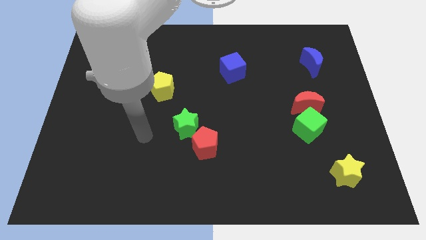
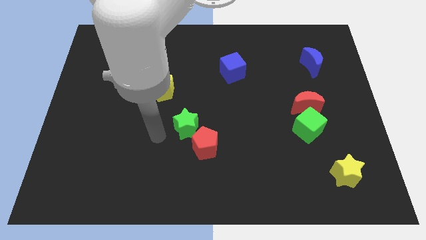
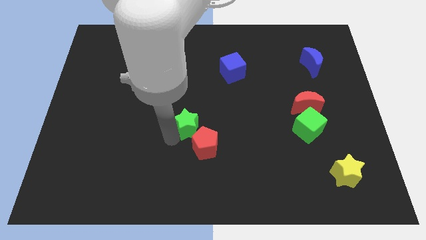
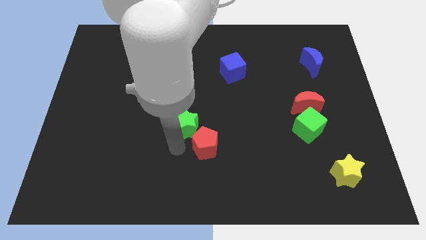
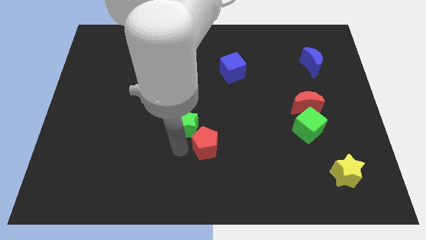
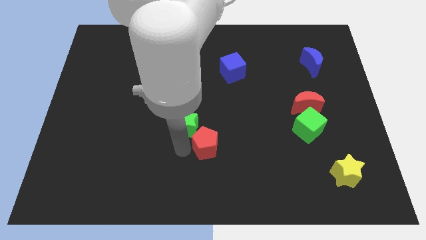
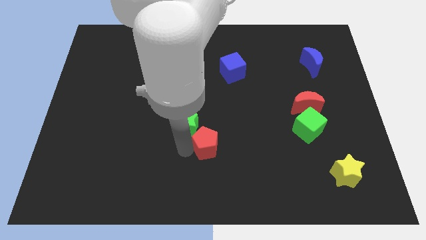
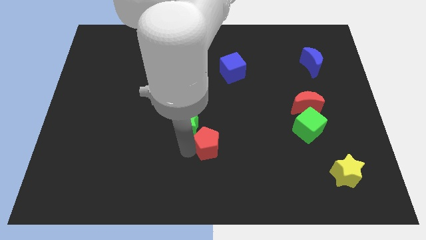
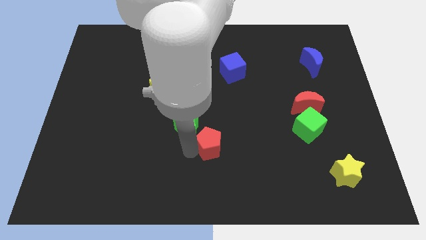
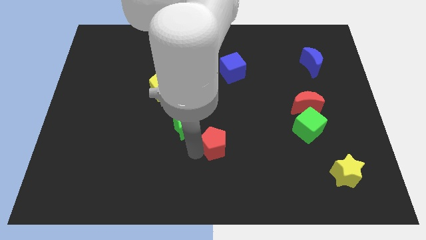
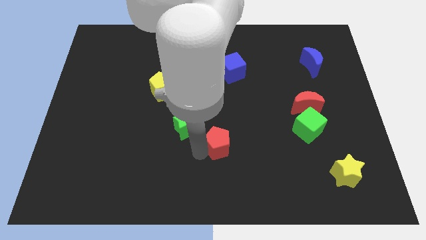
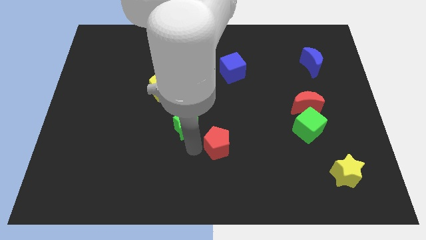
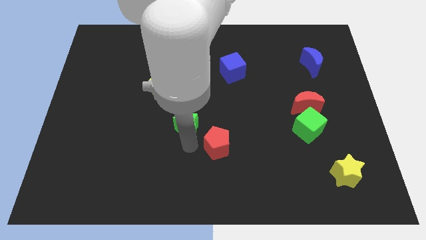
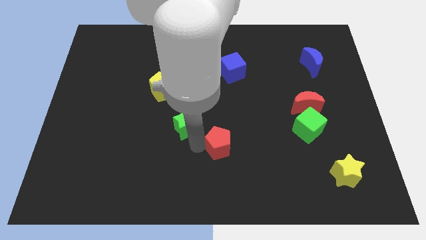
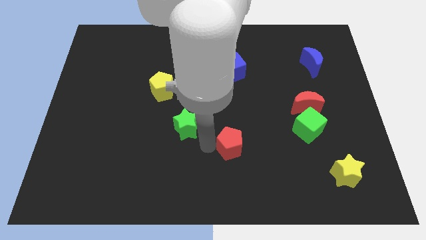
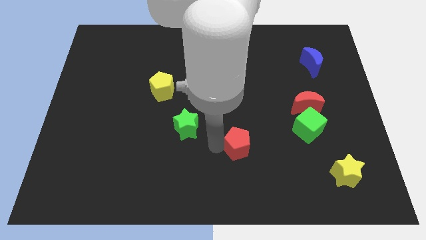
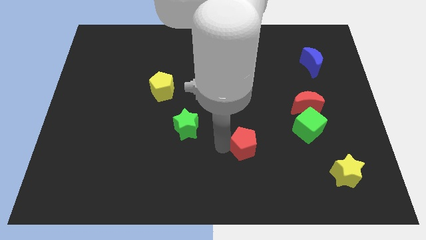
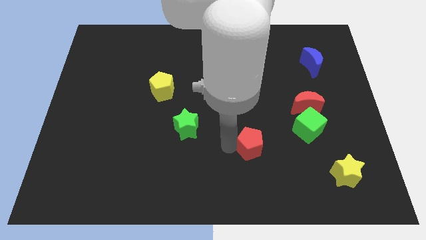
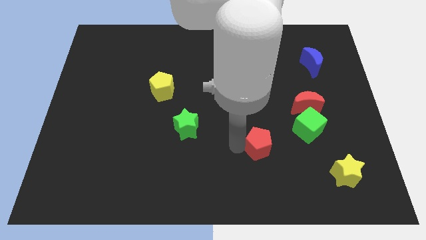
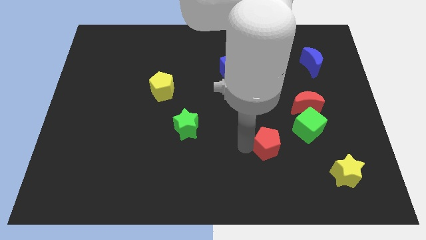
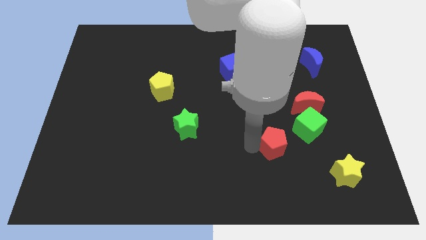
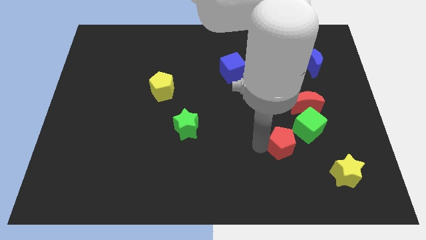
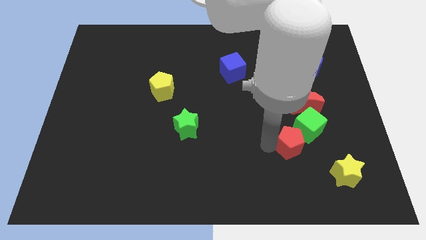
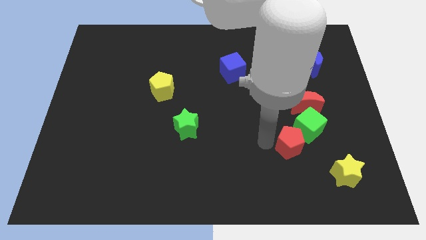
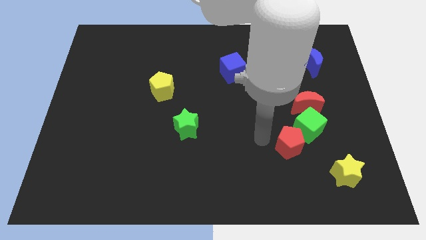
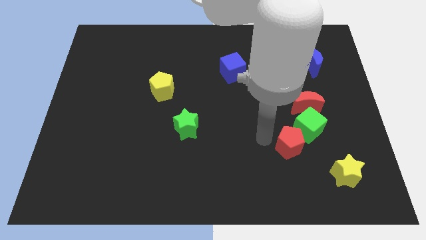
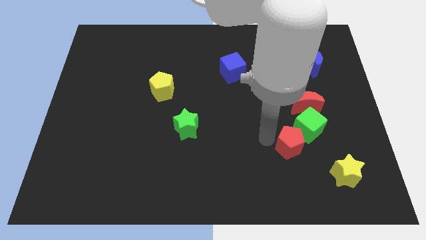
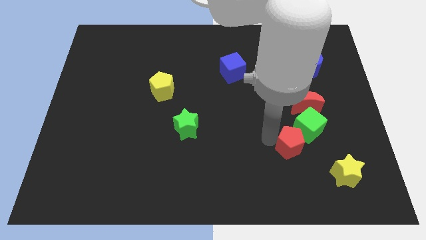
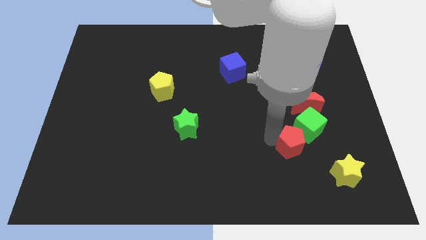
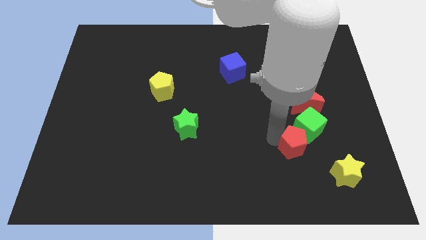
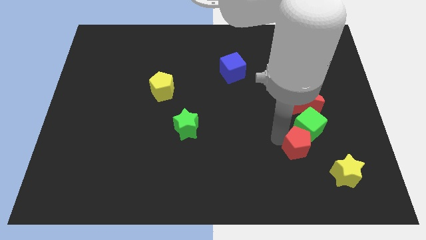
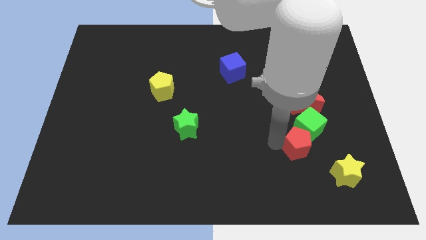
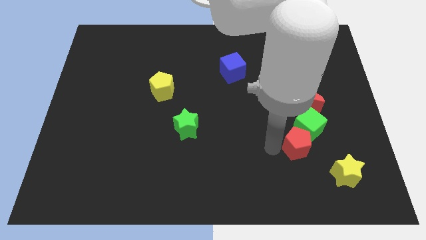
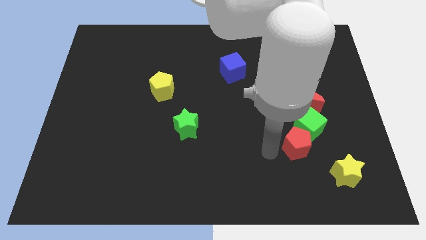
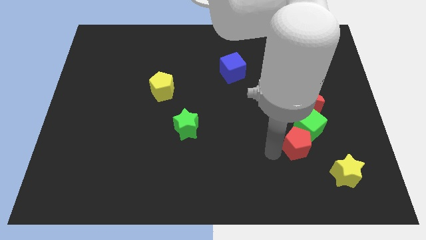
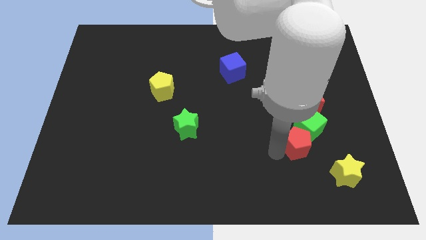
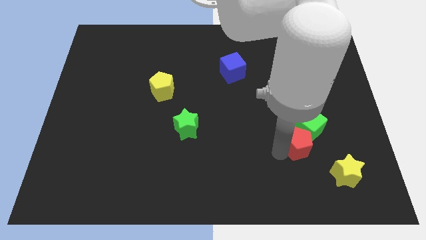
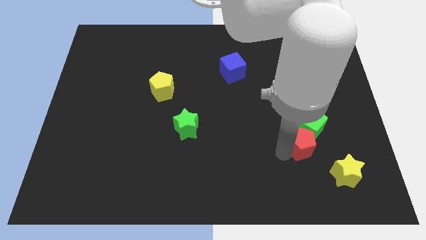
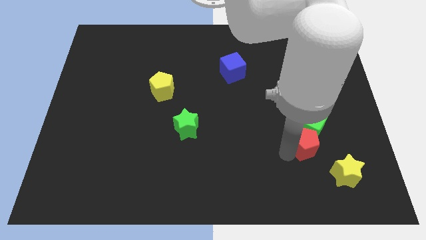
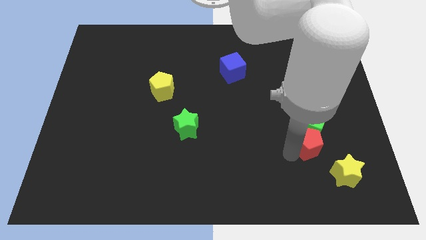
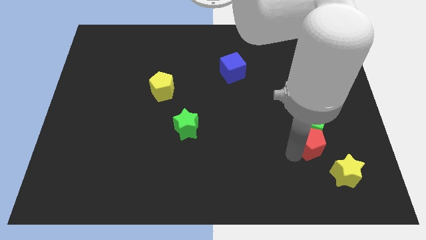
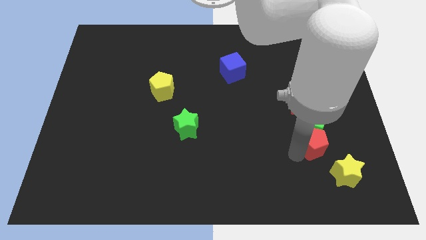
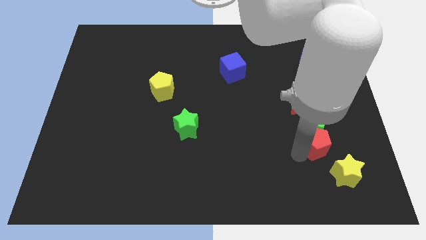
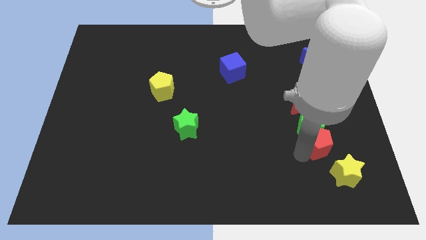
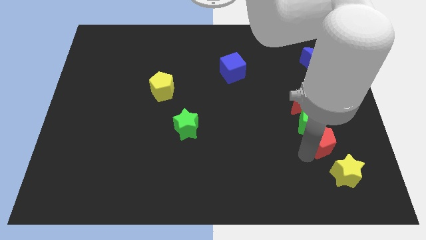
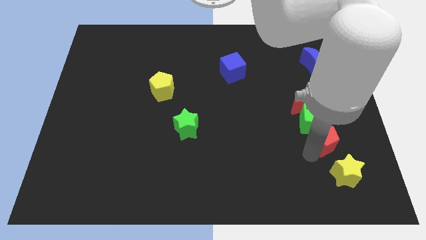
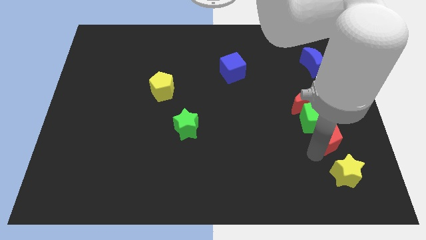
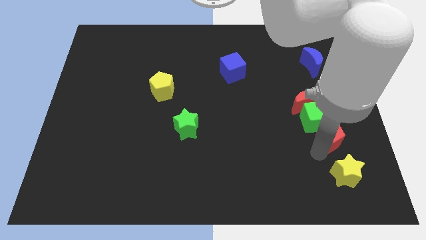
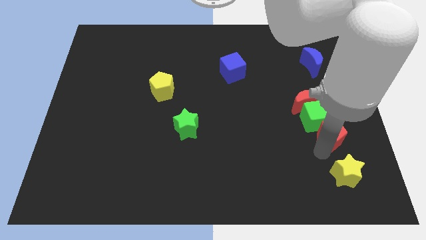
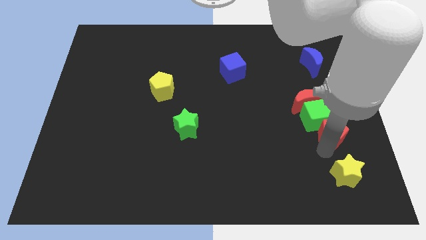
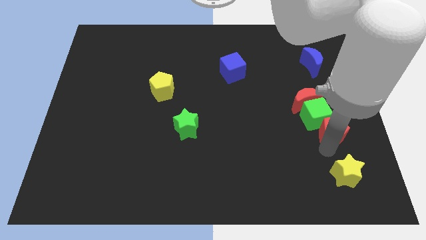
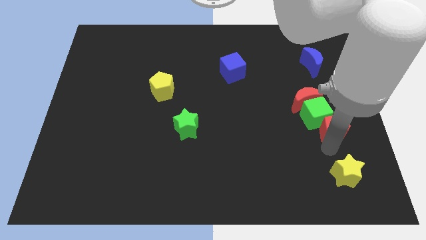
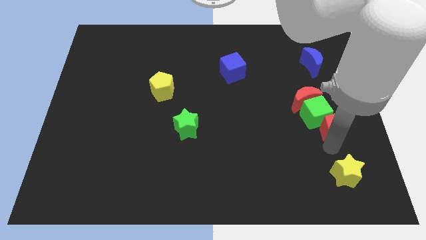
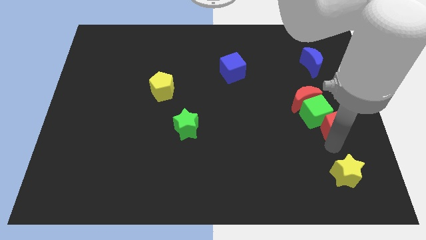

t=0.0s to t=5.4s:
slide the red pentagon to the right side
